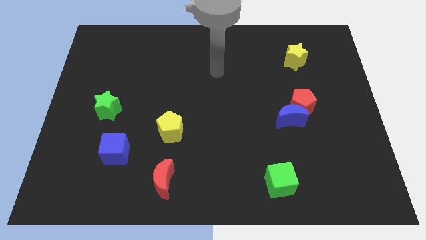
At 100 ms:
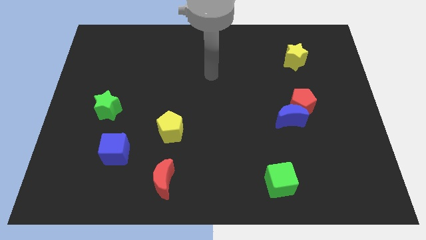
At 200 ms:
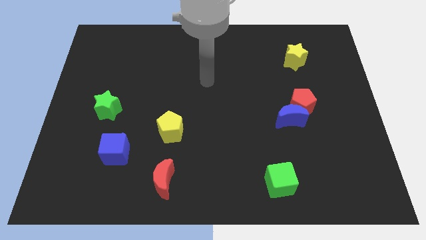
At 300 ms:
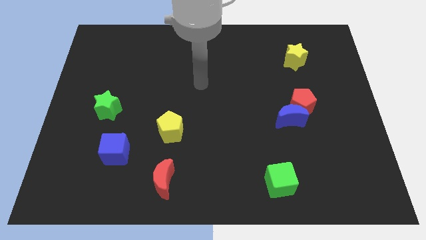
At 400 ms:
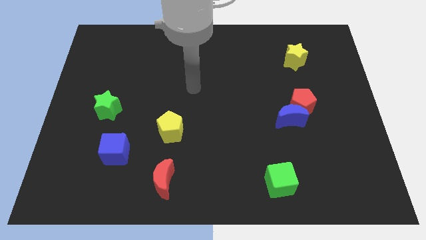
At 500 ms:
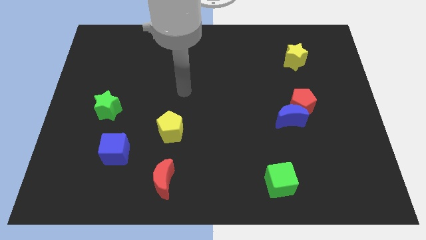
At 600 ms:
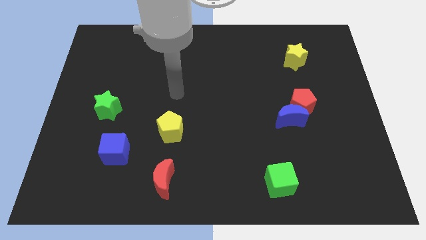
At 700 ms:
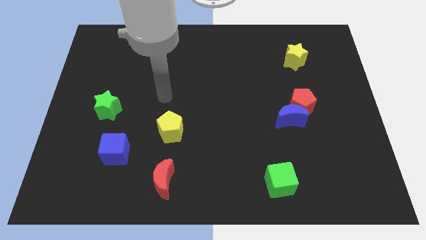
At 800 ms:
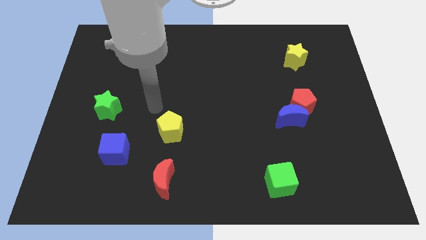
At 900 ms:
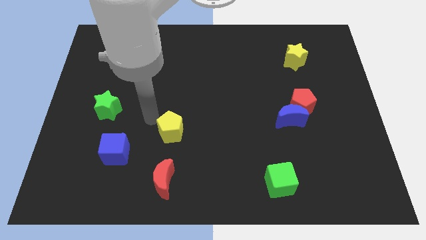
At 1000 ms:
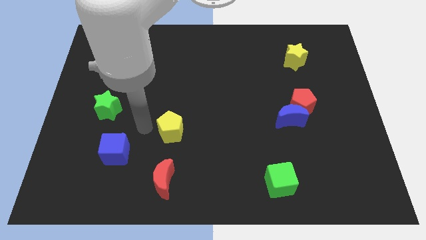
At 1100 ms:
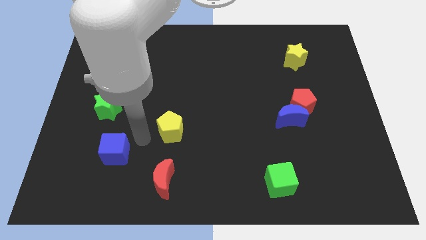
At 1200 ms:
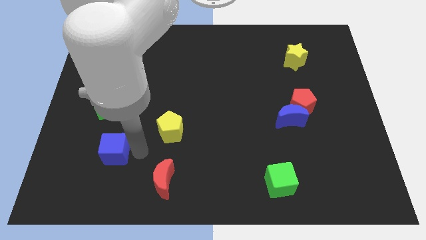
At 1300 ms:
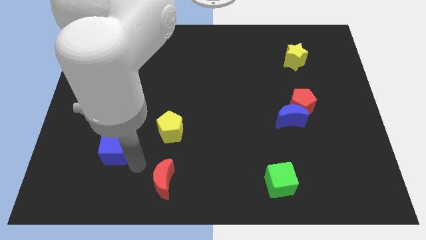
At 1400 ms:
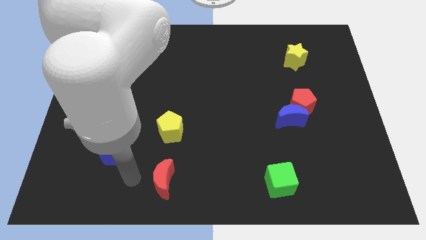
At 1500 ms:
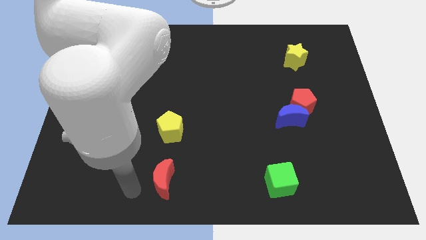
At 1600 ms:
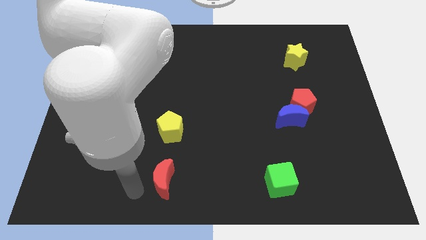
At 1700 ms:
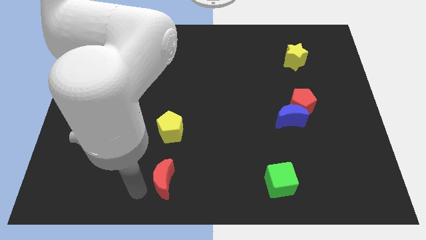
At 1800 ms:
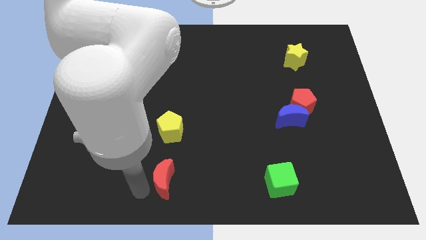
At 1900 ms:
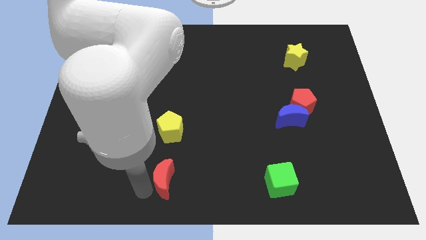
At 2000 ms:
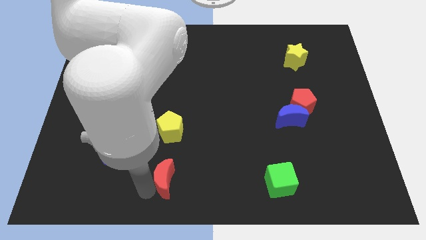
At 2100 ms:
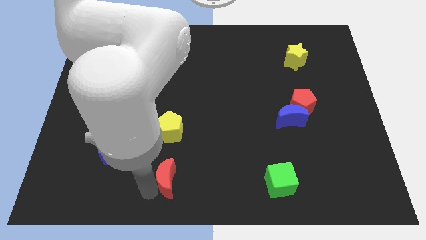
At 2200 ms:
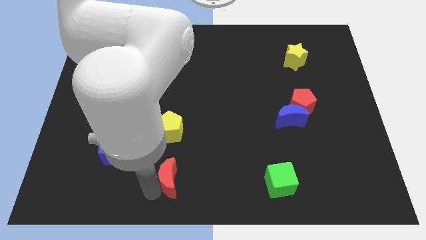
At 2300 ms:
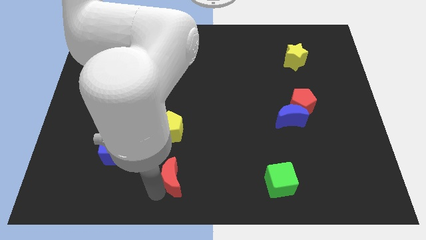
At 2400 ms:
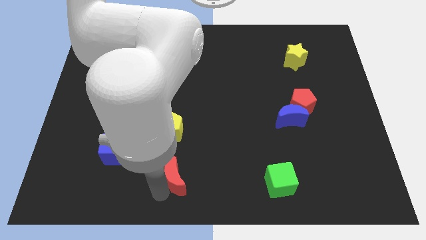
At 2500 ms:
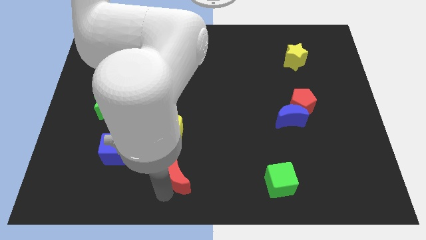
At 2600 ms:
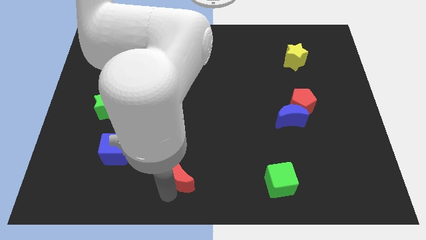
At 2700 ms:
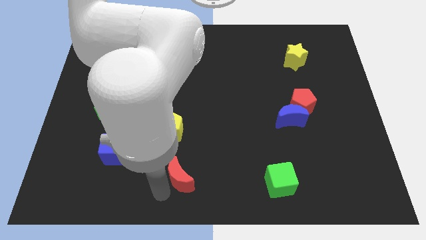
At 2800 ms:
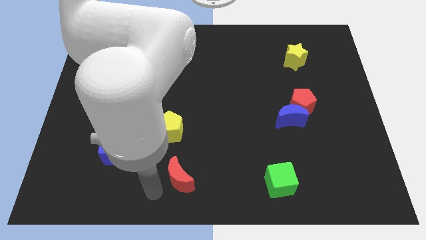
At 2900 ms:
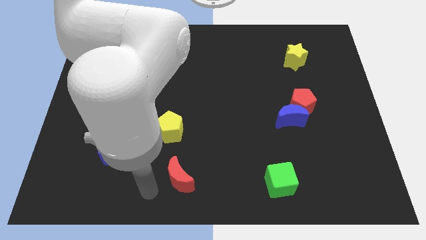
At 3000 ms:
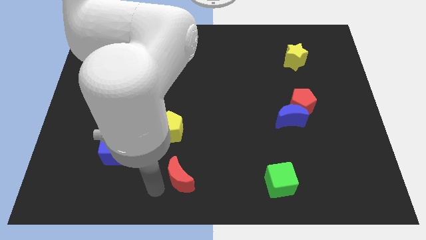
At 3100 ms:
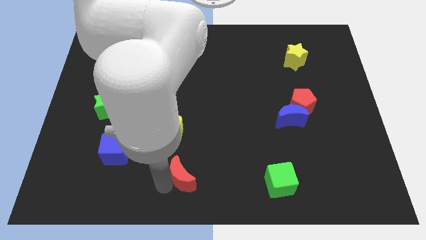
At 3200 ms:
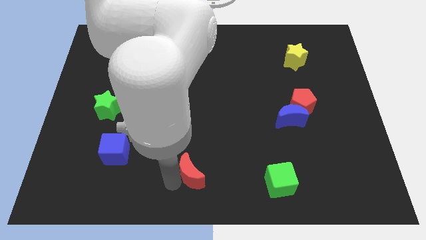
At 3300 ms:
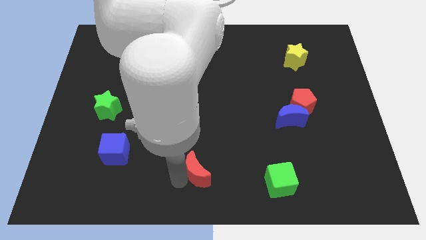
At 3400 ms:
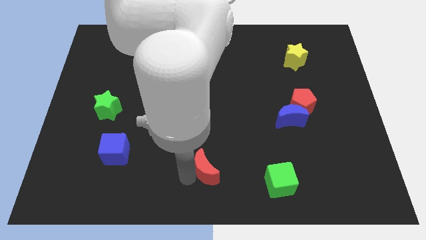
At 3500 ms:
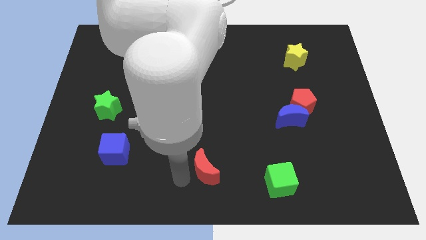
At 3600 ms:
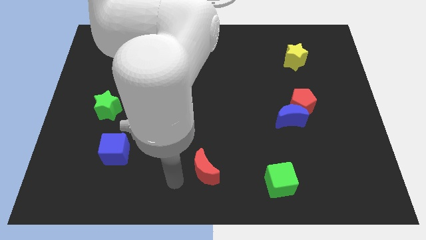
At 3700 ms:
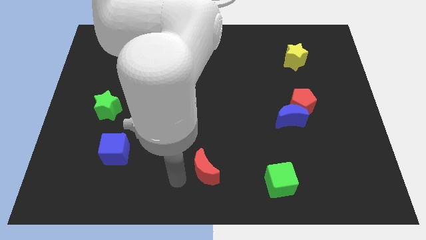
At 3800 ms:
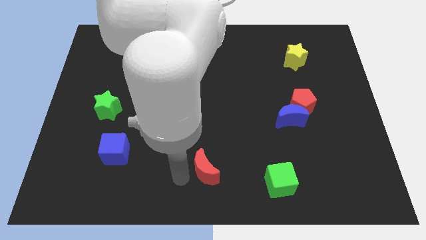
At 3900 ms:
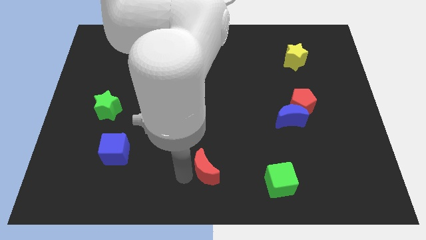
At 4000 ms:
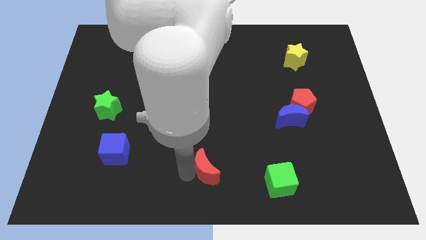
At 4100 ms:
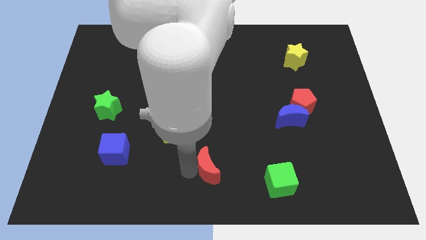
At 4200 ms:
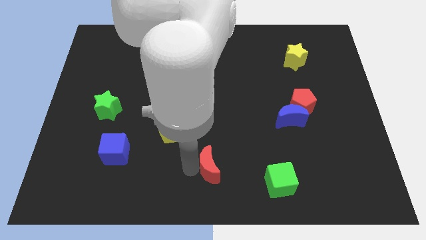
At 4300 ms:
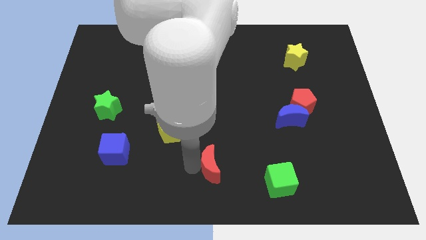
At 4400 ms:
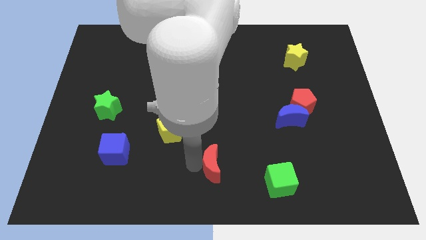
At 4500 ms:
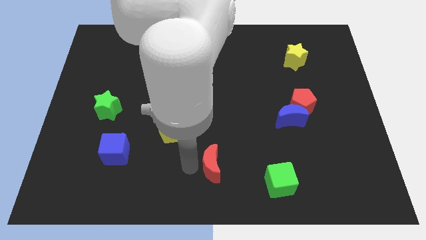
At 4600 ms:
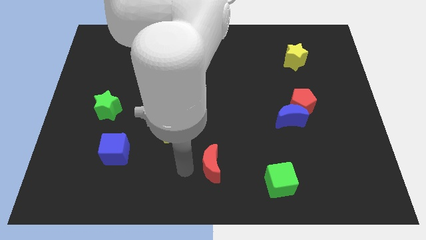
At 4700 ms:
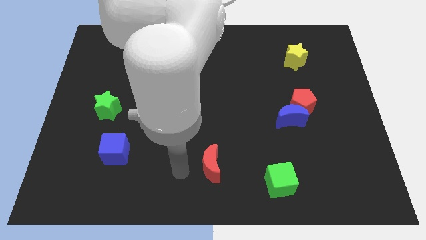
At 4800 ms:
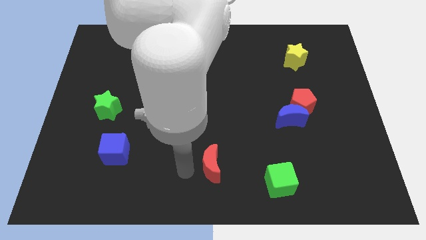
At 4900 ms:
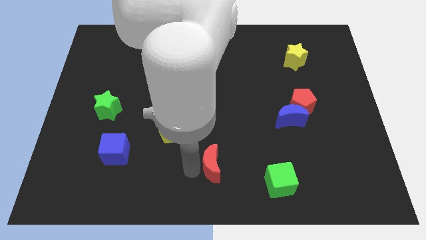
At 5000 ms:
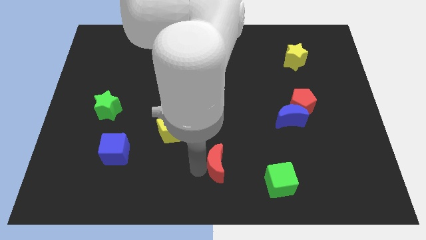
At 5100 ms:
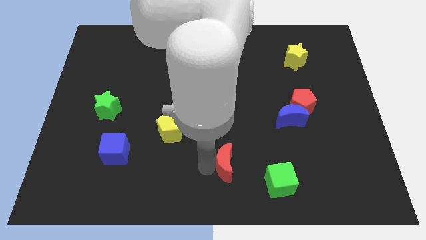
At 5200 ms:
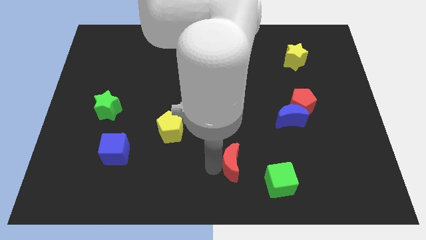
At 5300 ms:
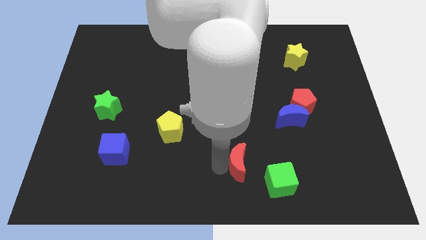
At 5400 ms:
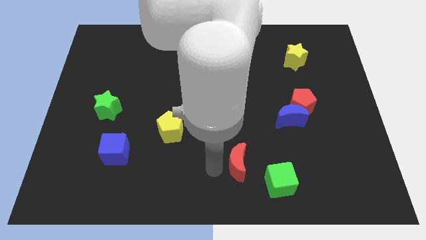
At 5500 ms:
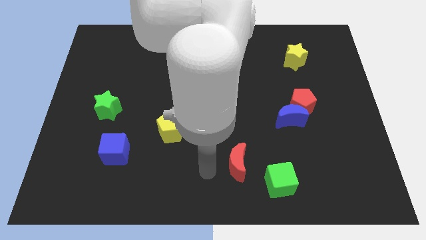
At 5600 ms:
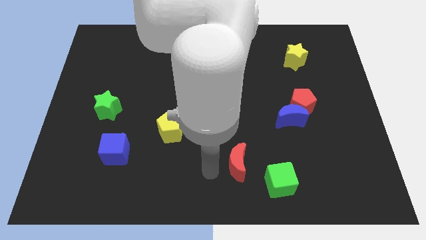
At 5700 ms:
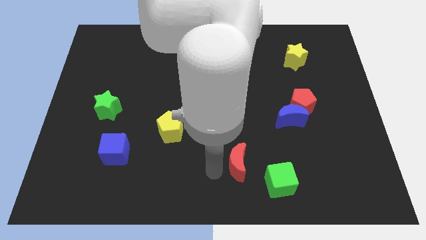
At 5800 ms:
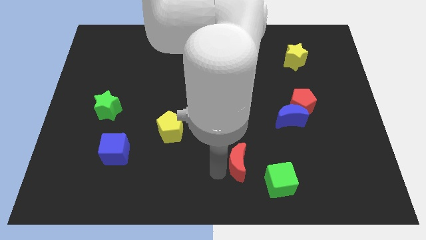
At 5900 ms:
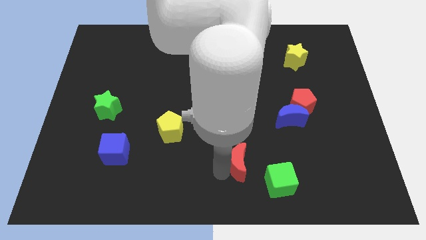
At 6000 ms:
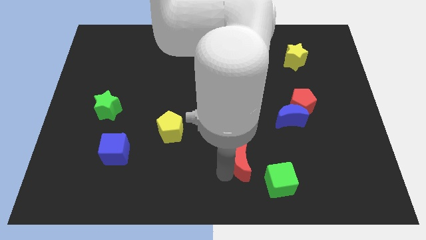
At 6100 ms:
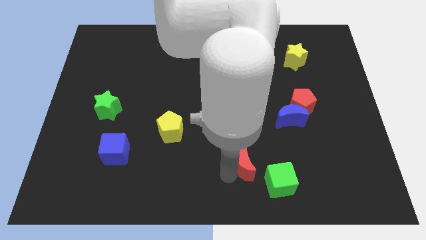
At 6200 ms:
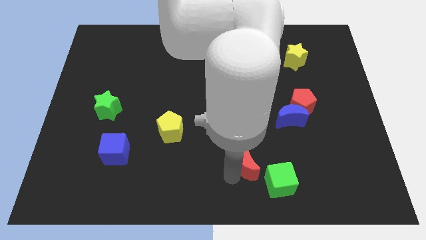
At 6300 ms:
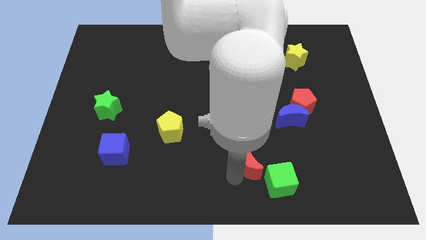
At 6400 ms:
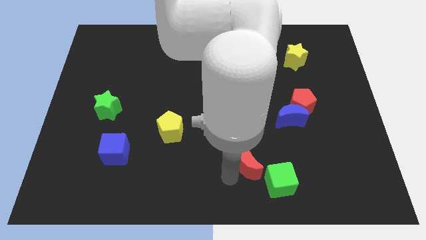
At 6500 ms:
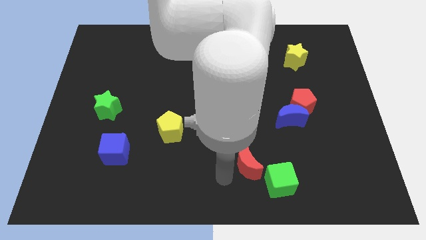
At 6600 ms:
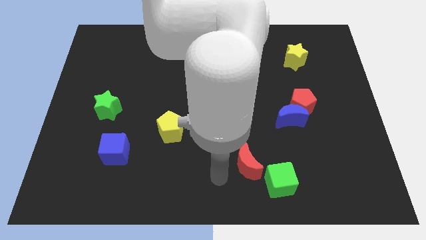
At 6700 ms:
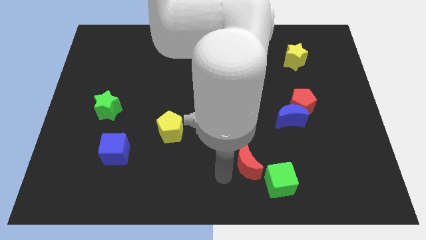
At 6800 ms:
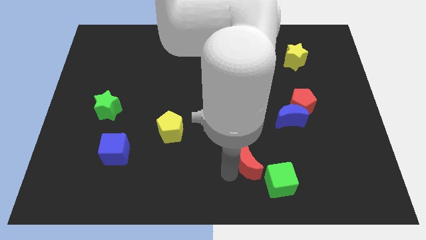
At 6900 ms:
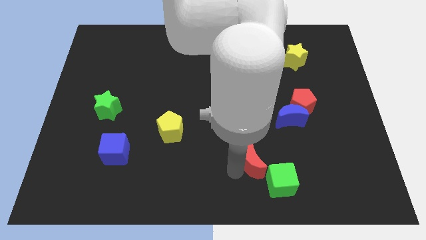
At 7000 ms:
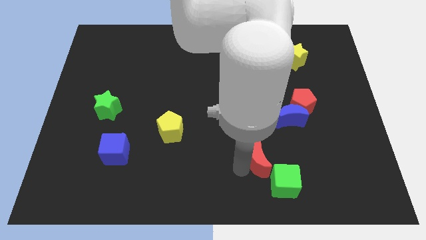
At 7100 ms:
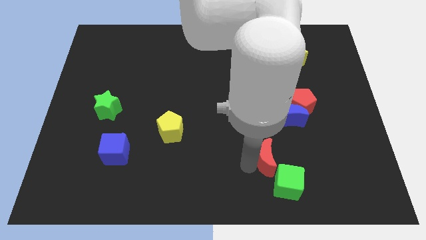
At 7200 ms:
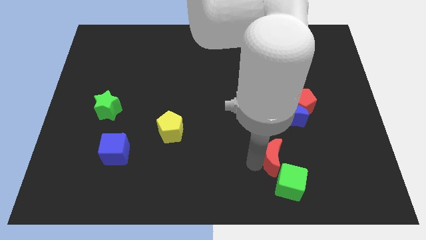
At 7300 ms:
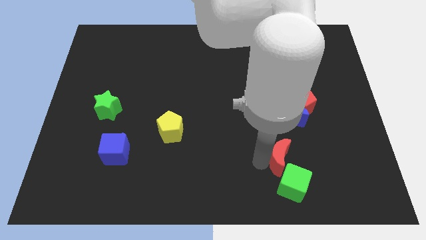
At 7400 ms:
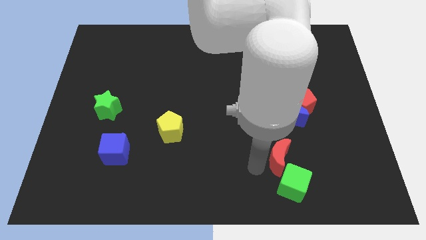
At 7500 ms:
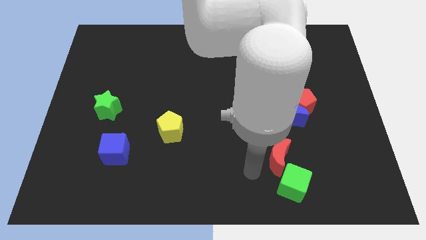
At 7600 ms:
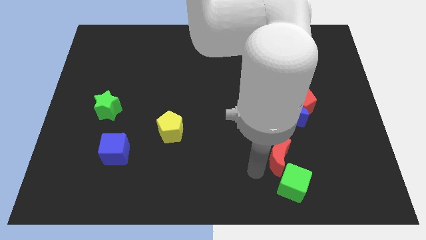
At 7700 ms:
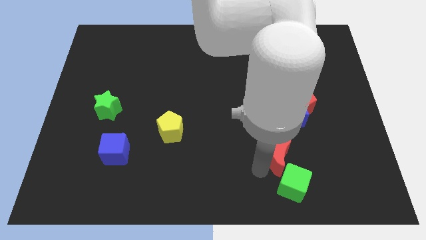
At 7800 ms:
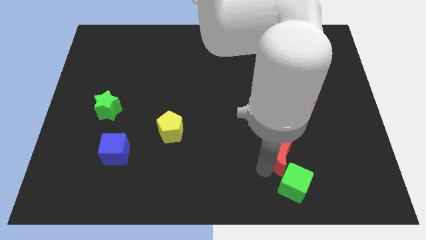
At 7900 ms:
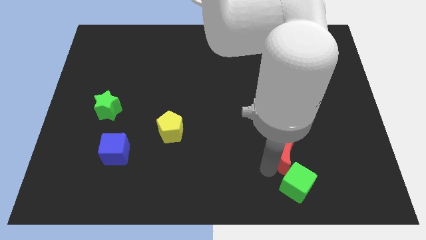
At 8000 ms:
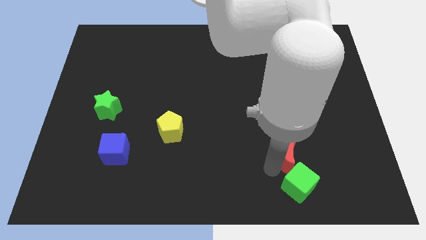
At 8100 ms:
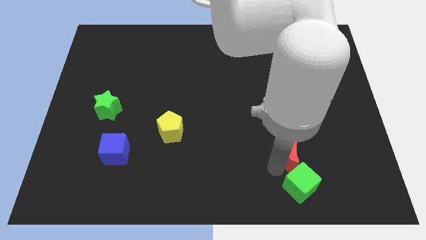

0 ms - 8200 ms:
put the red moon to the bottom of the red pentagon
